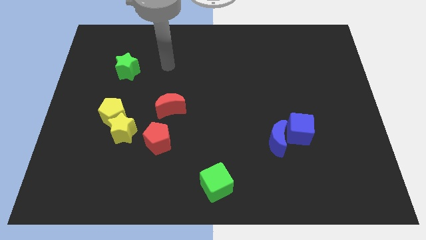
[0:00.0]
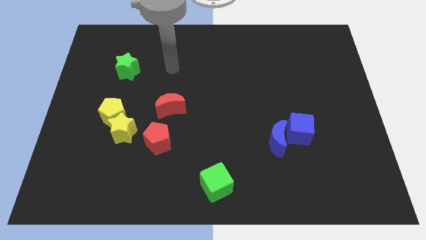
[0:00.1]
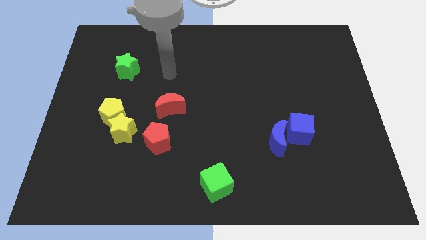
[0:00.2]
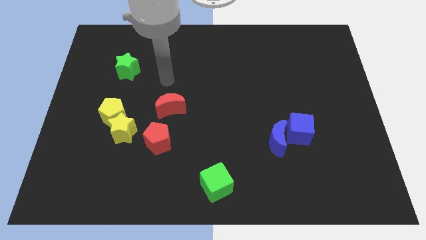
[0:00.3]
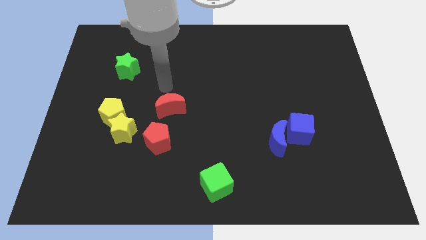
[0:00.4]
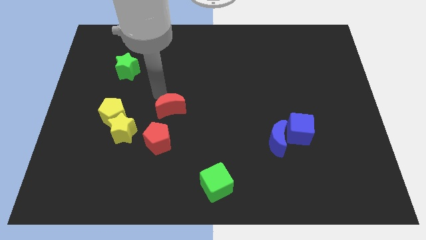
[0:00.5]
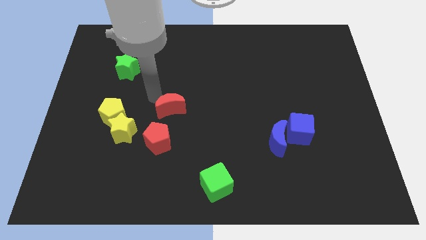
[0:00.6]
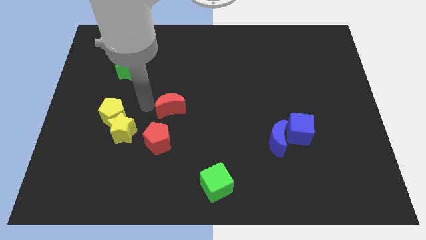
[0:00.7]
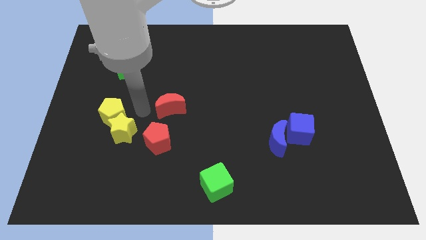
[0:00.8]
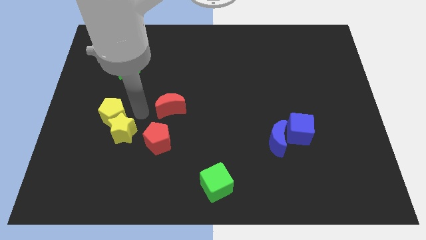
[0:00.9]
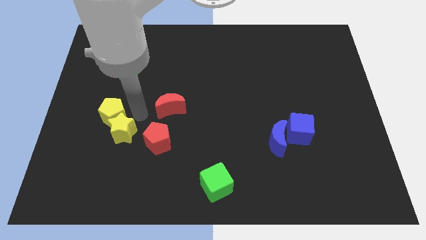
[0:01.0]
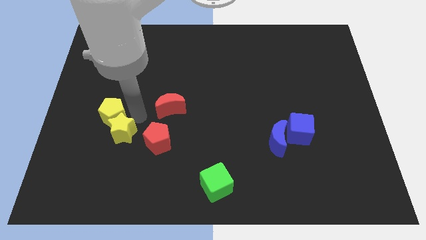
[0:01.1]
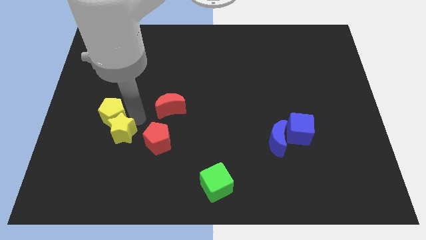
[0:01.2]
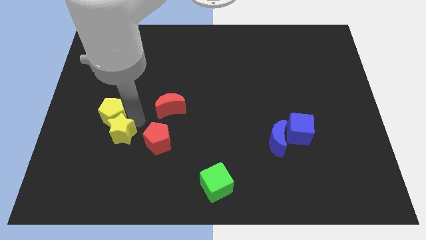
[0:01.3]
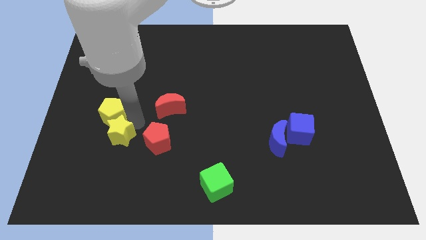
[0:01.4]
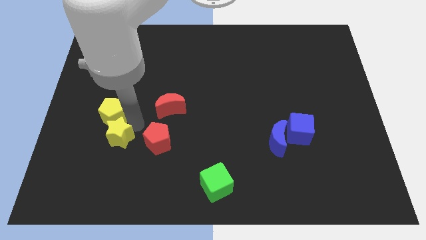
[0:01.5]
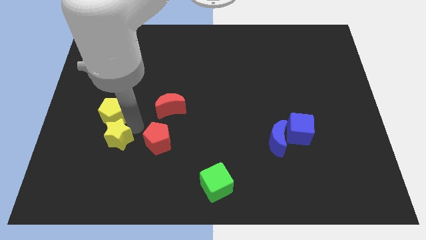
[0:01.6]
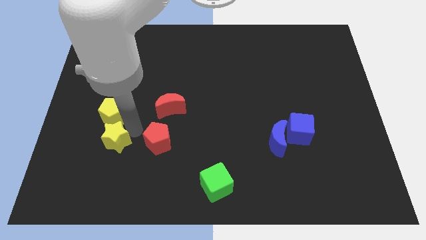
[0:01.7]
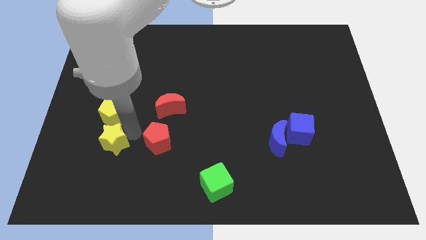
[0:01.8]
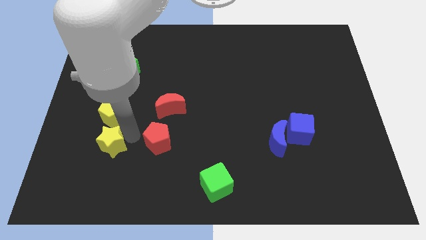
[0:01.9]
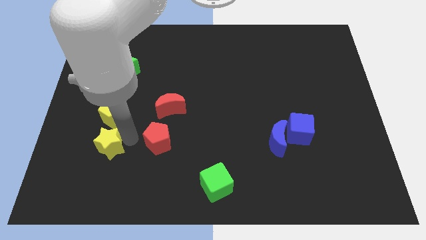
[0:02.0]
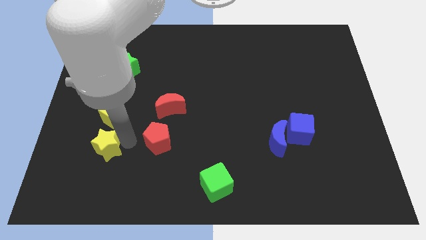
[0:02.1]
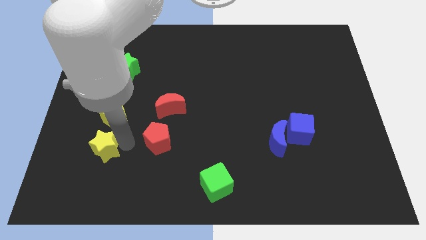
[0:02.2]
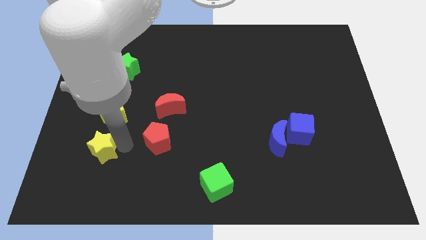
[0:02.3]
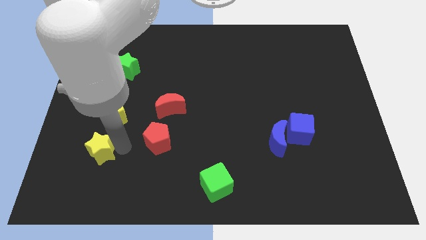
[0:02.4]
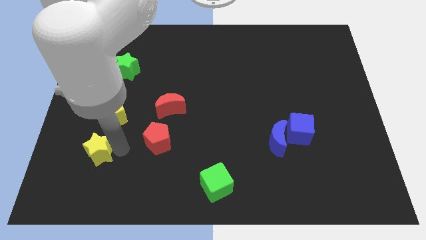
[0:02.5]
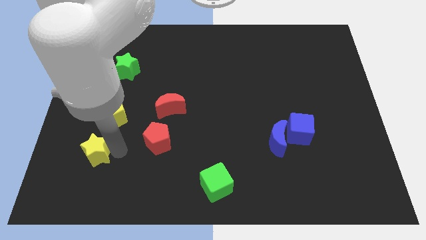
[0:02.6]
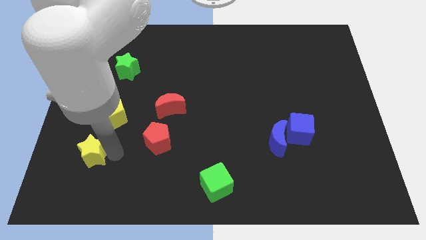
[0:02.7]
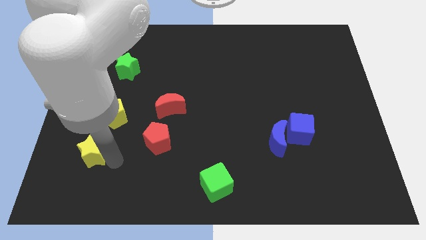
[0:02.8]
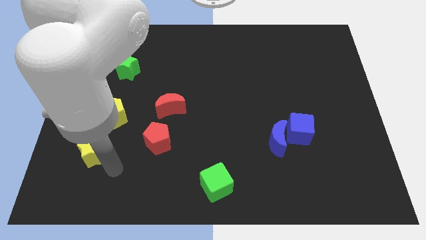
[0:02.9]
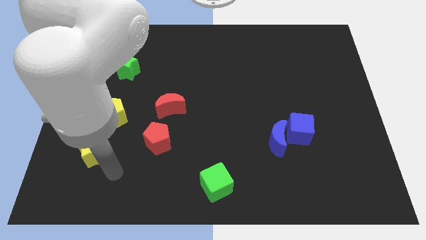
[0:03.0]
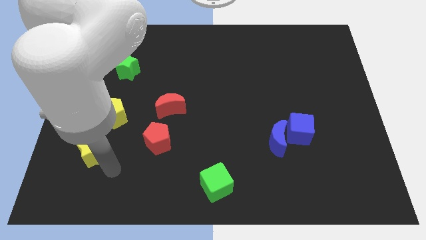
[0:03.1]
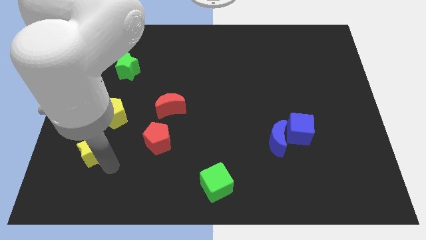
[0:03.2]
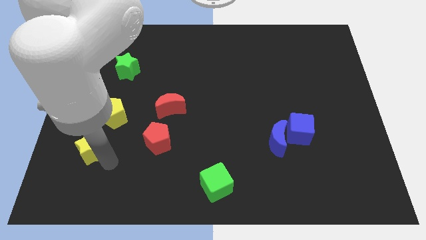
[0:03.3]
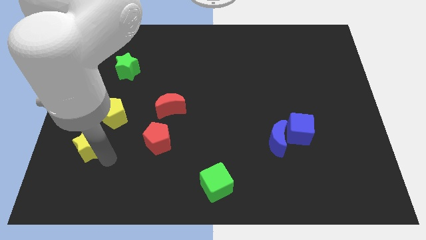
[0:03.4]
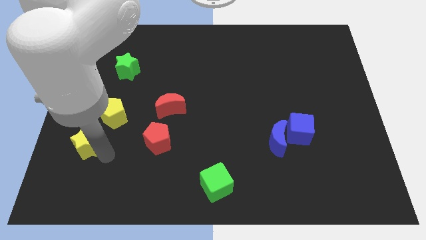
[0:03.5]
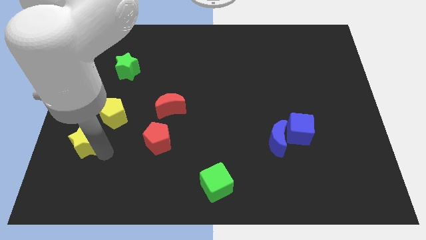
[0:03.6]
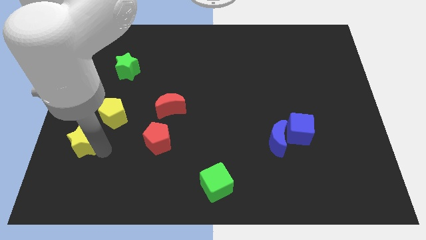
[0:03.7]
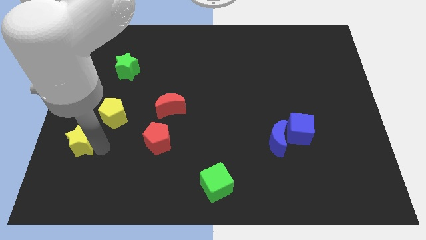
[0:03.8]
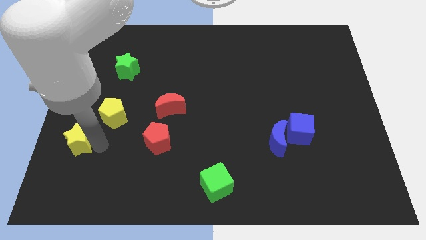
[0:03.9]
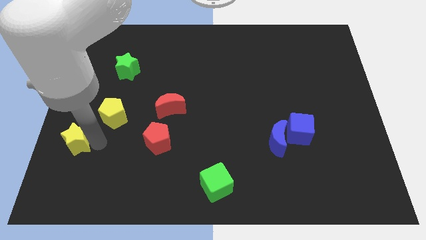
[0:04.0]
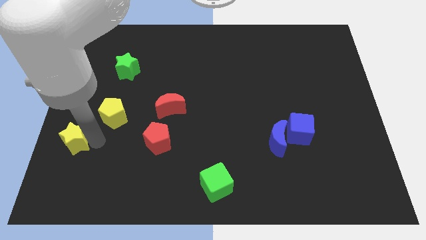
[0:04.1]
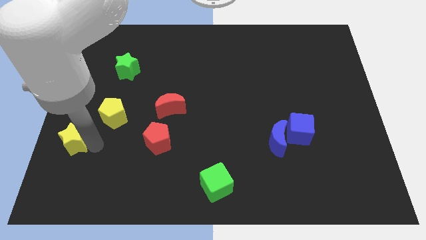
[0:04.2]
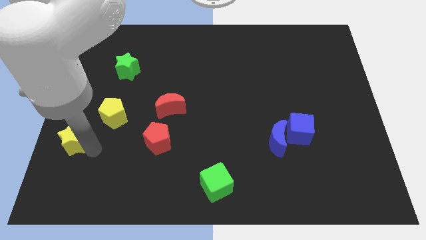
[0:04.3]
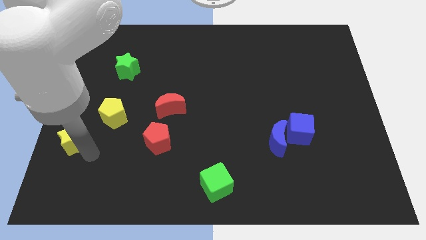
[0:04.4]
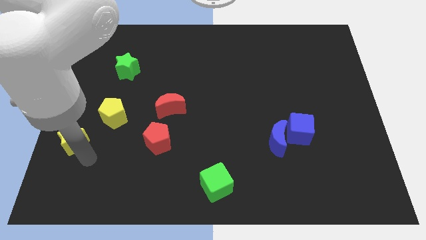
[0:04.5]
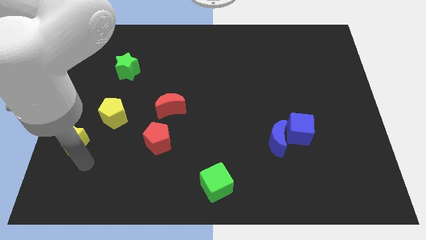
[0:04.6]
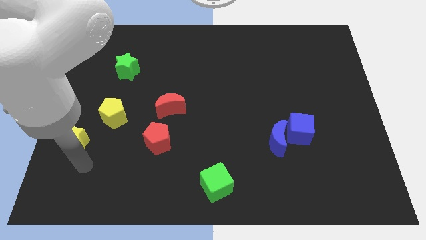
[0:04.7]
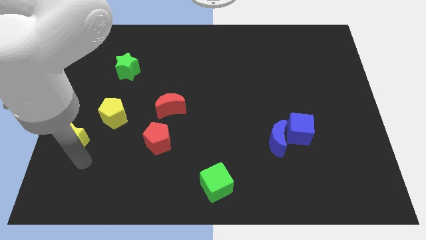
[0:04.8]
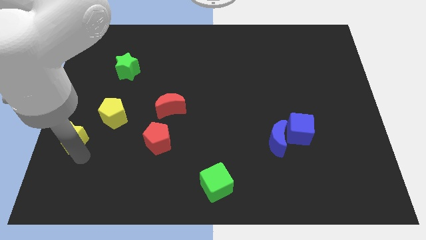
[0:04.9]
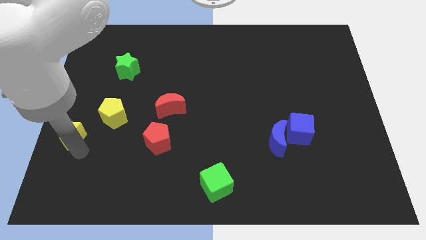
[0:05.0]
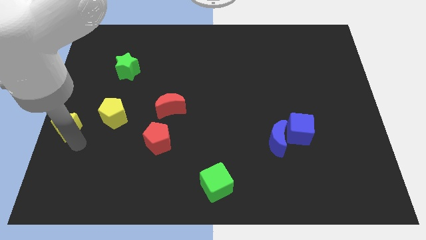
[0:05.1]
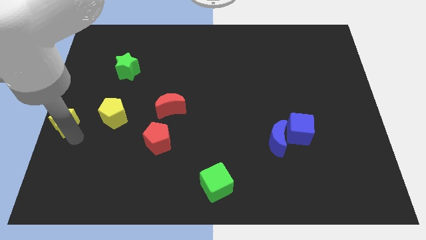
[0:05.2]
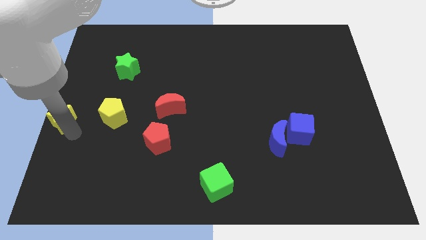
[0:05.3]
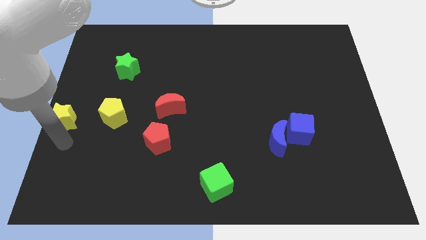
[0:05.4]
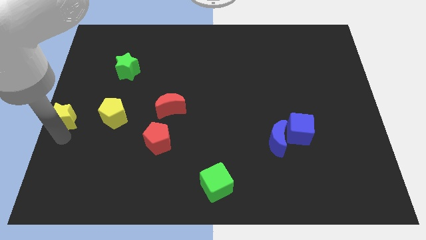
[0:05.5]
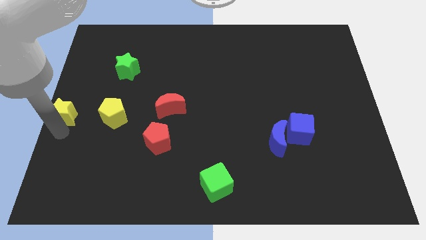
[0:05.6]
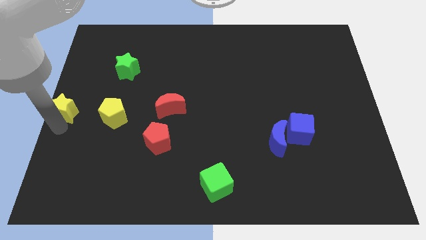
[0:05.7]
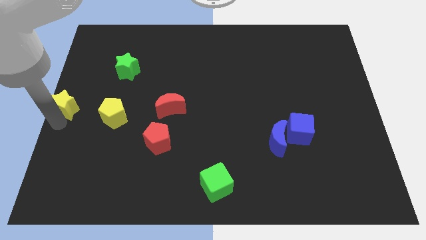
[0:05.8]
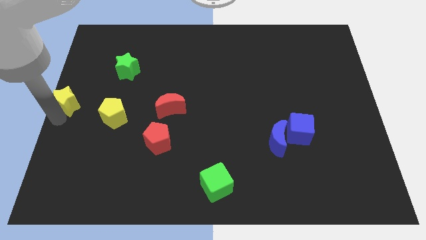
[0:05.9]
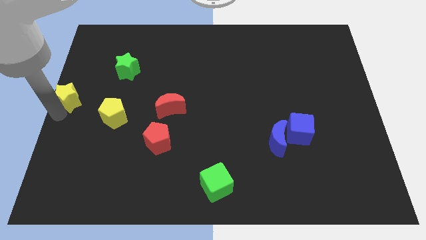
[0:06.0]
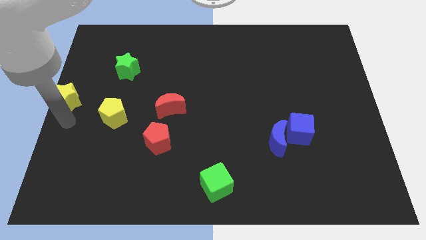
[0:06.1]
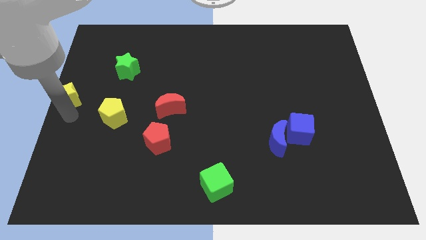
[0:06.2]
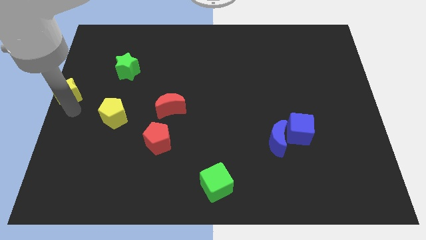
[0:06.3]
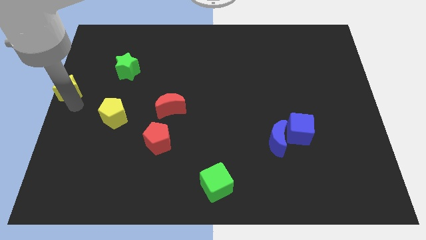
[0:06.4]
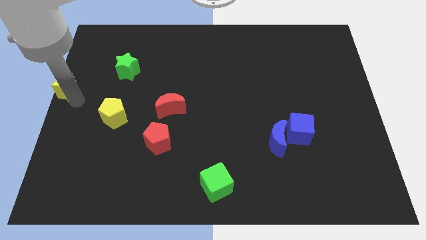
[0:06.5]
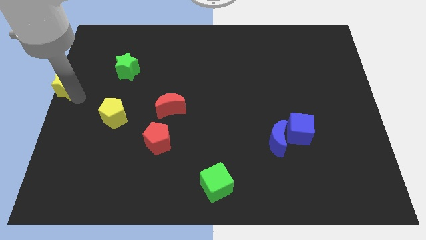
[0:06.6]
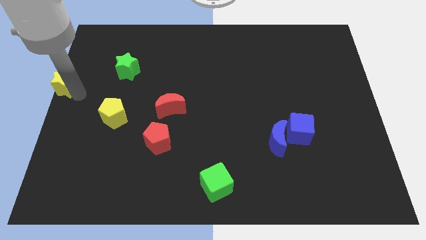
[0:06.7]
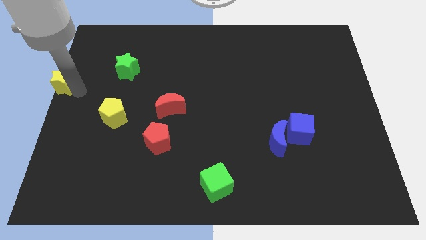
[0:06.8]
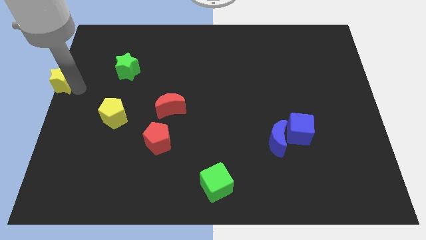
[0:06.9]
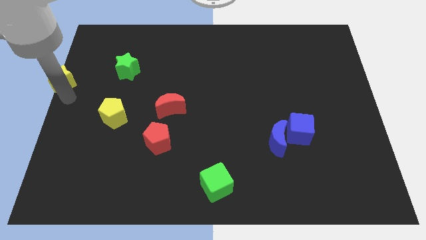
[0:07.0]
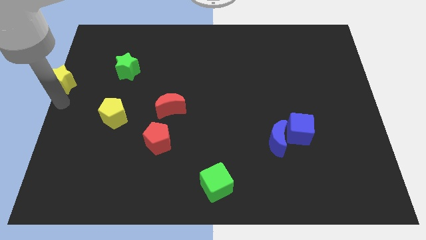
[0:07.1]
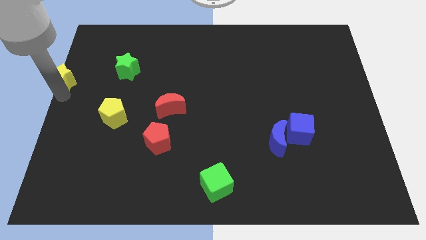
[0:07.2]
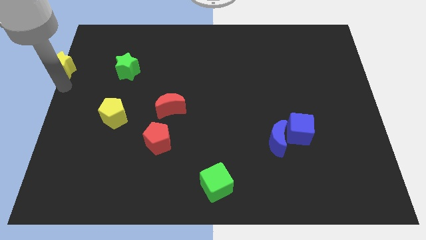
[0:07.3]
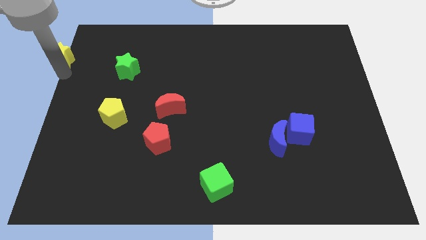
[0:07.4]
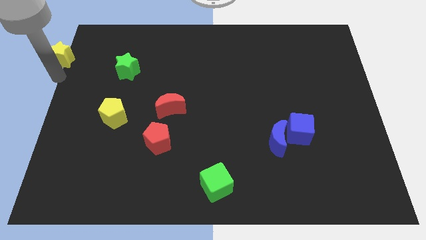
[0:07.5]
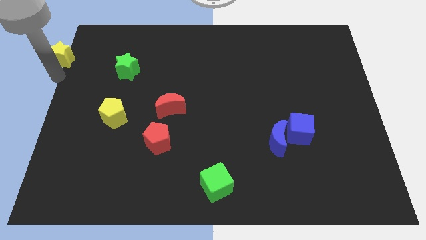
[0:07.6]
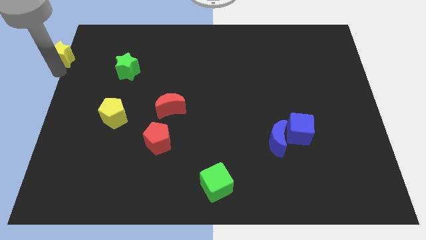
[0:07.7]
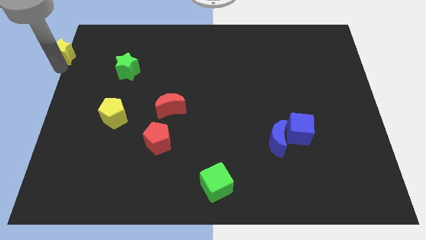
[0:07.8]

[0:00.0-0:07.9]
move the yellow star to the upper left corner
